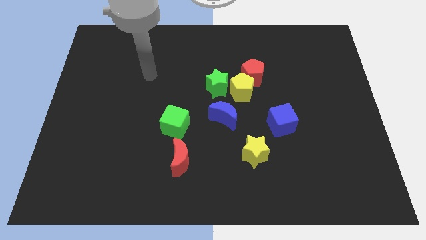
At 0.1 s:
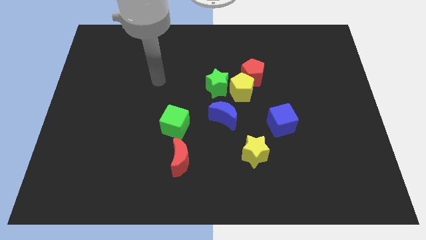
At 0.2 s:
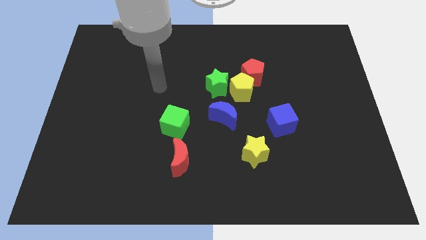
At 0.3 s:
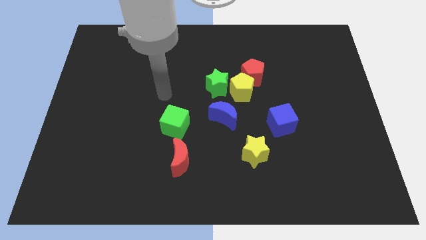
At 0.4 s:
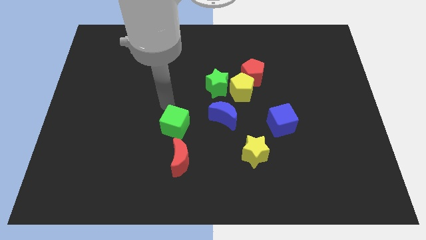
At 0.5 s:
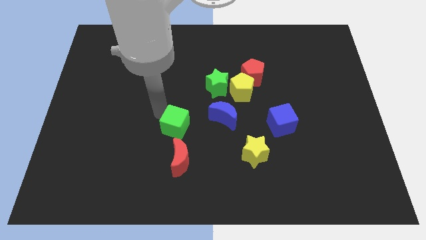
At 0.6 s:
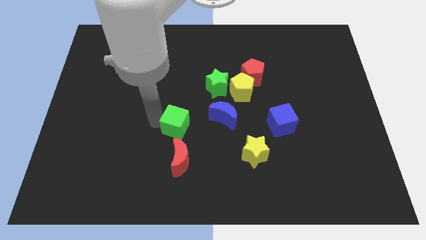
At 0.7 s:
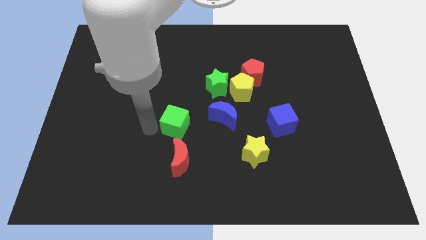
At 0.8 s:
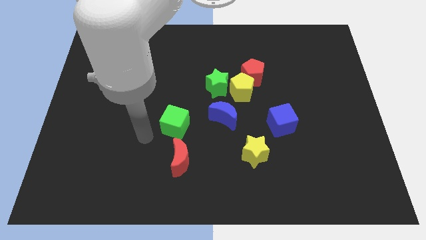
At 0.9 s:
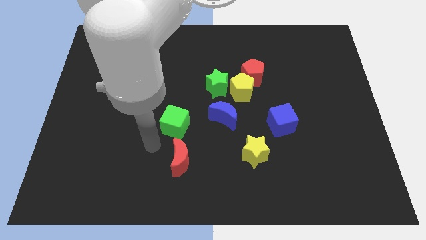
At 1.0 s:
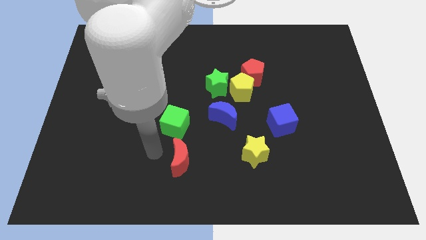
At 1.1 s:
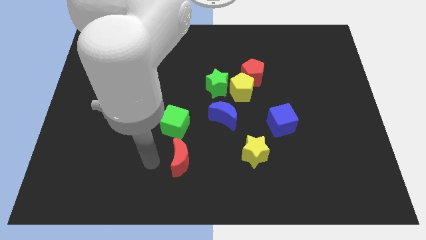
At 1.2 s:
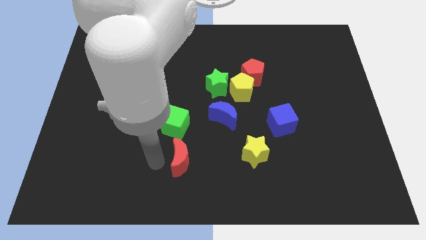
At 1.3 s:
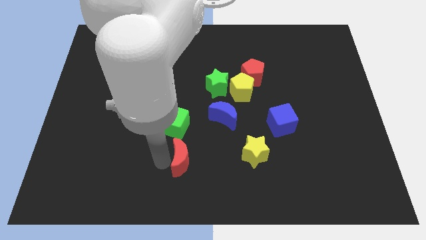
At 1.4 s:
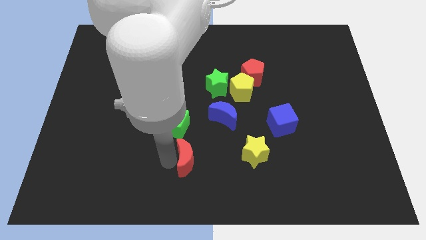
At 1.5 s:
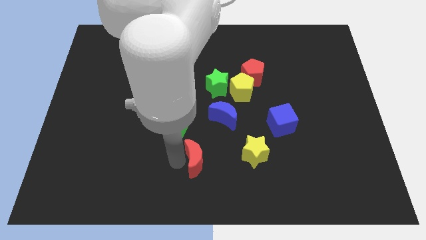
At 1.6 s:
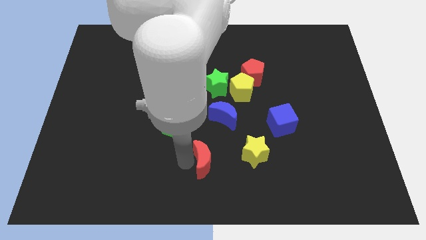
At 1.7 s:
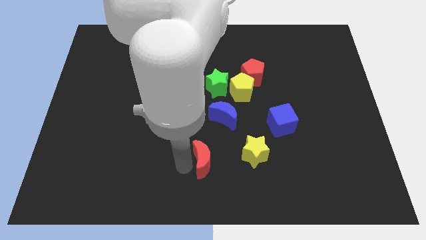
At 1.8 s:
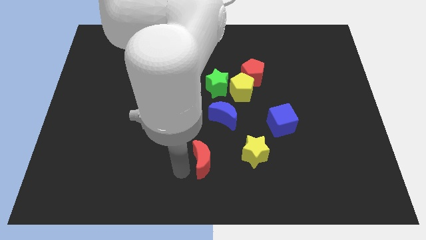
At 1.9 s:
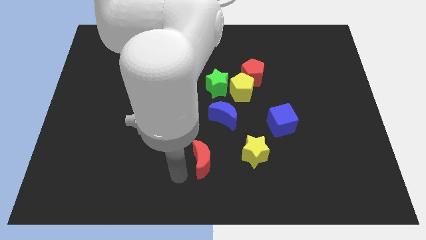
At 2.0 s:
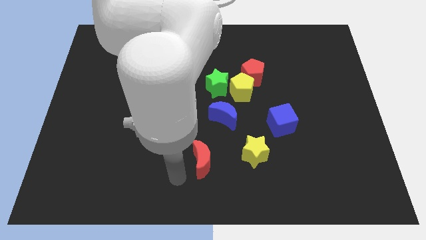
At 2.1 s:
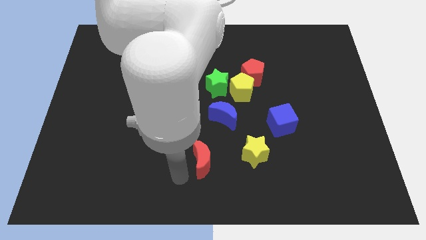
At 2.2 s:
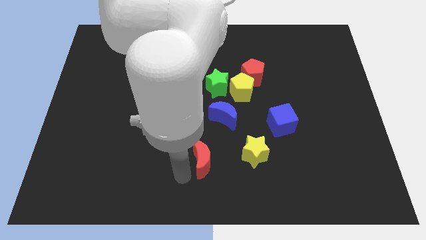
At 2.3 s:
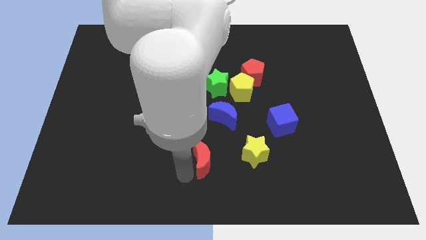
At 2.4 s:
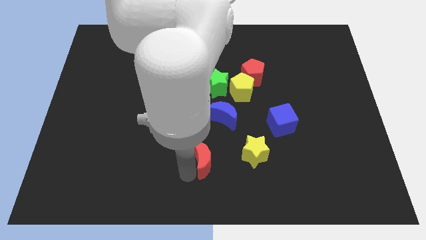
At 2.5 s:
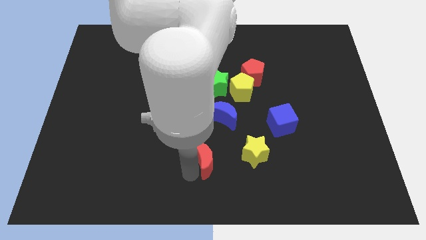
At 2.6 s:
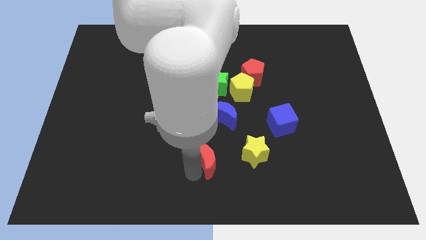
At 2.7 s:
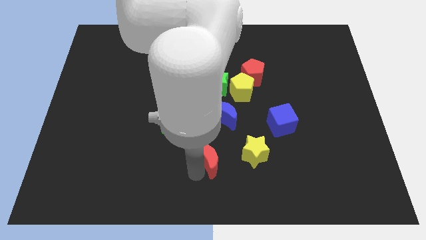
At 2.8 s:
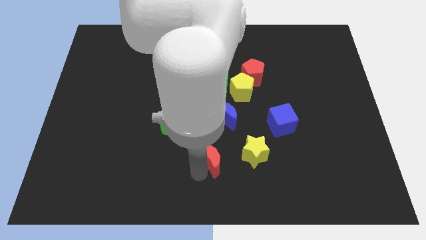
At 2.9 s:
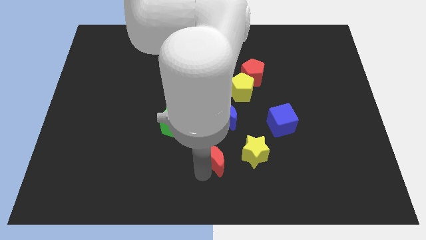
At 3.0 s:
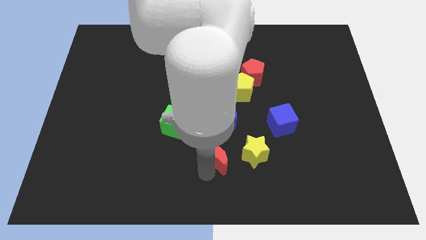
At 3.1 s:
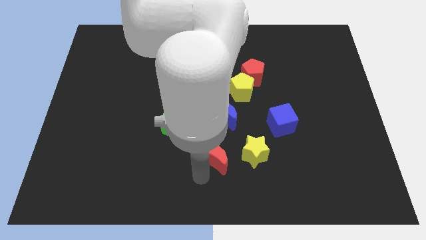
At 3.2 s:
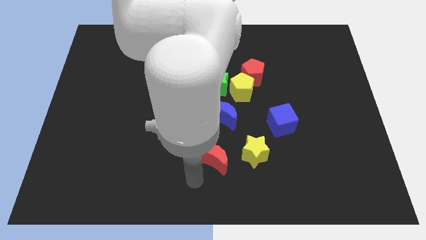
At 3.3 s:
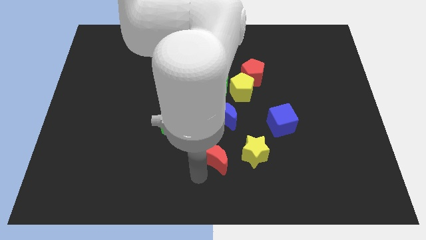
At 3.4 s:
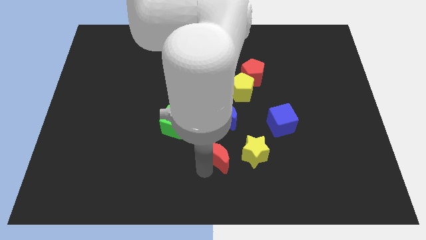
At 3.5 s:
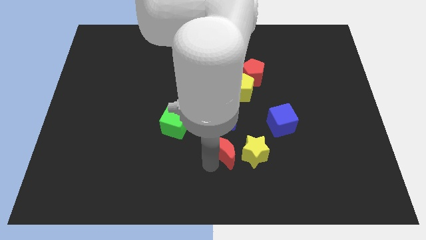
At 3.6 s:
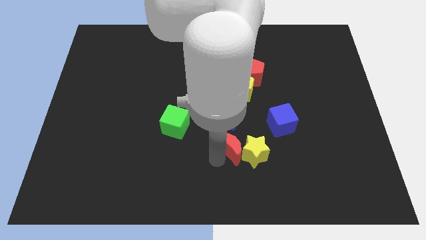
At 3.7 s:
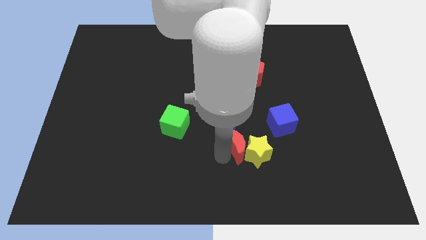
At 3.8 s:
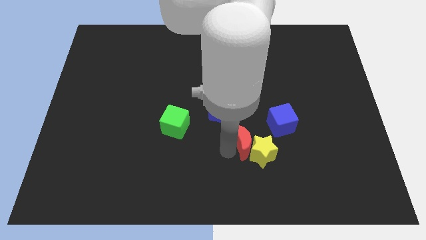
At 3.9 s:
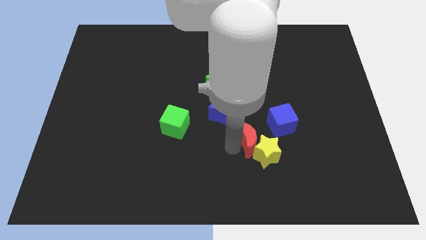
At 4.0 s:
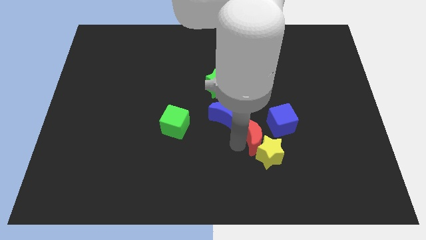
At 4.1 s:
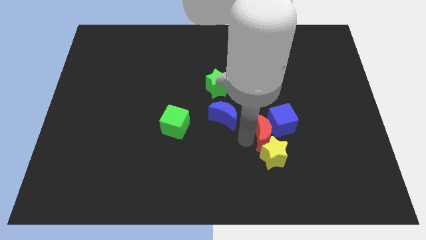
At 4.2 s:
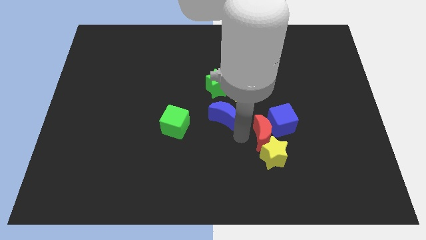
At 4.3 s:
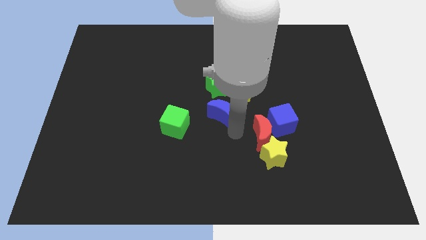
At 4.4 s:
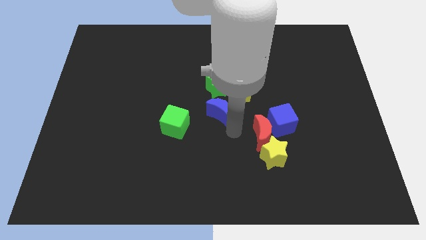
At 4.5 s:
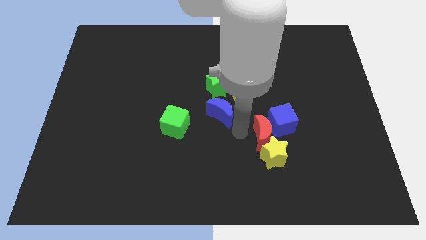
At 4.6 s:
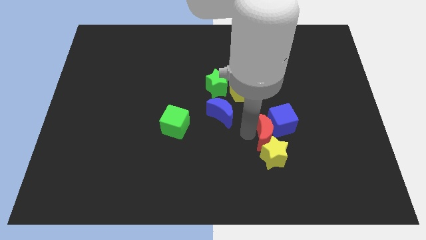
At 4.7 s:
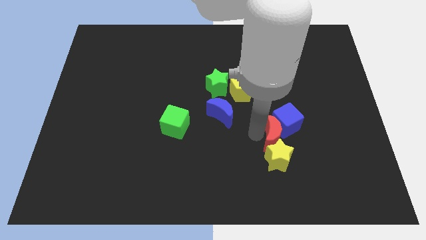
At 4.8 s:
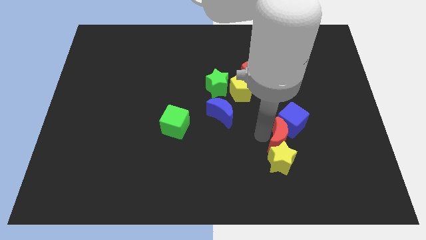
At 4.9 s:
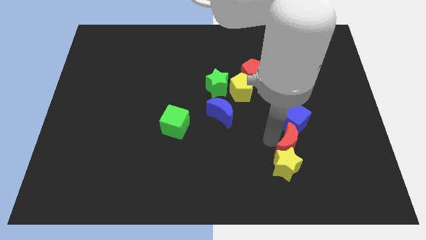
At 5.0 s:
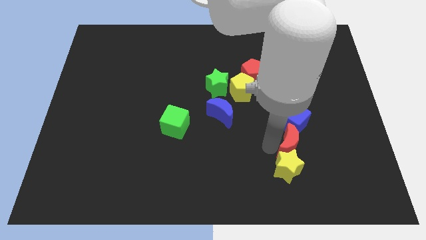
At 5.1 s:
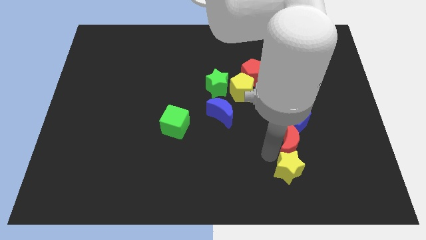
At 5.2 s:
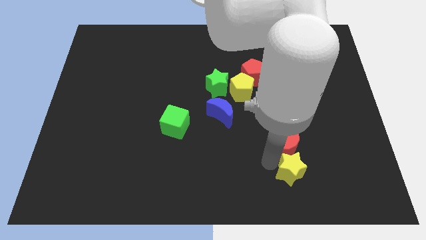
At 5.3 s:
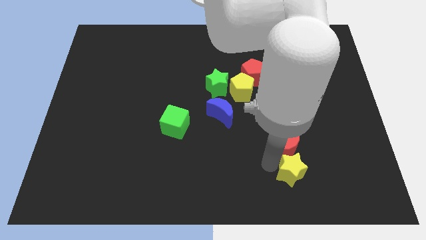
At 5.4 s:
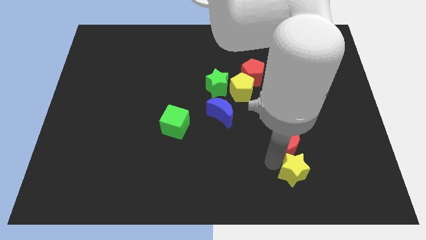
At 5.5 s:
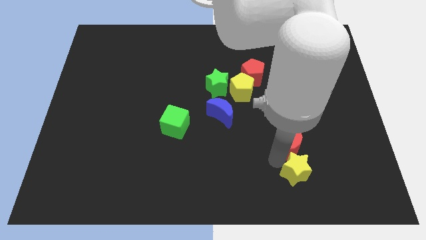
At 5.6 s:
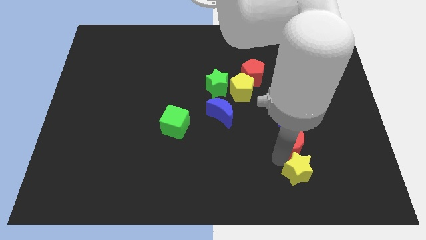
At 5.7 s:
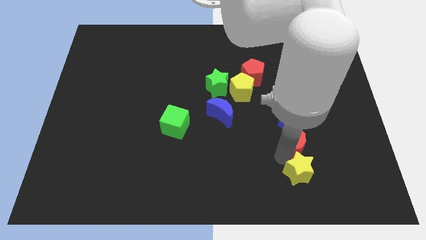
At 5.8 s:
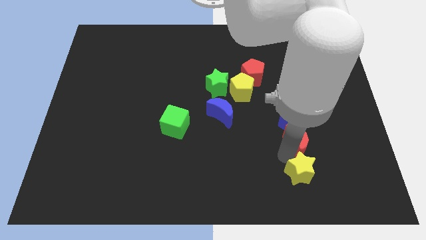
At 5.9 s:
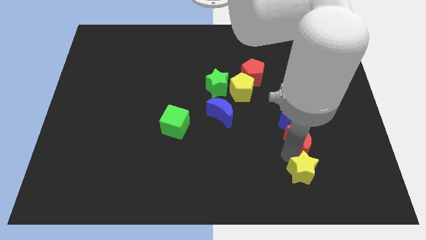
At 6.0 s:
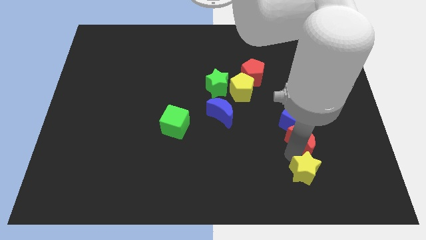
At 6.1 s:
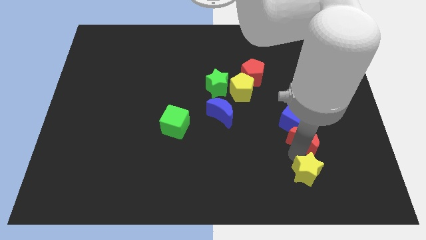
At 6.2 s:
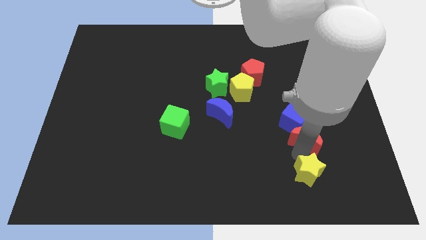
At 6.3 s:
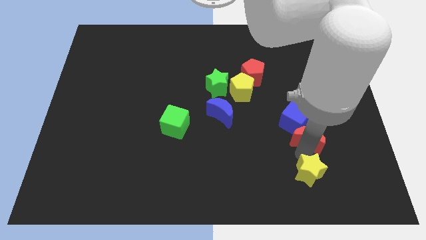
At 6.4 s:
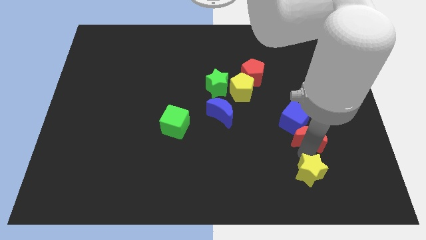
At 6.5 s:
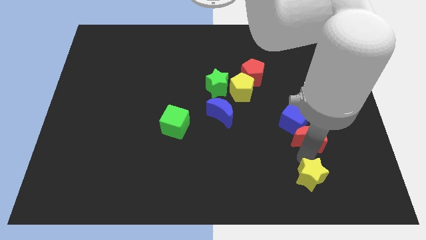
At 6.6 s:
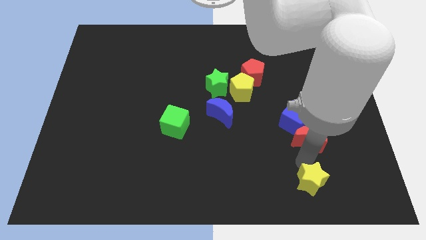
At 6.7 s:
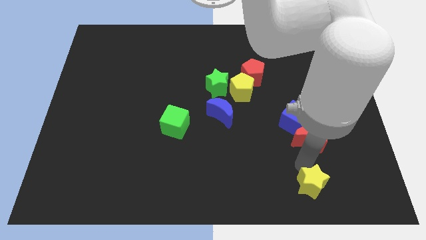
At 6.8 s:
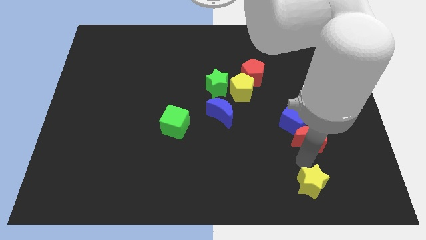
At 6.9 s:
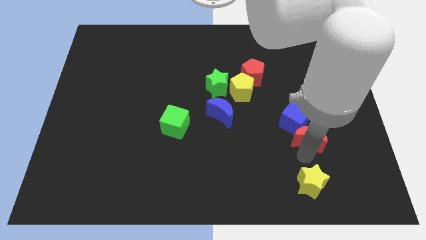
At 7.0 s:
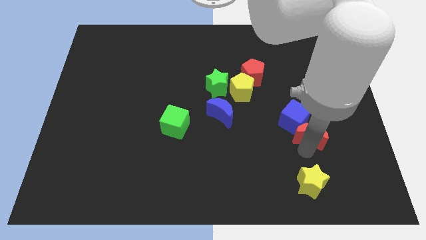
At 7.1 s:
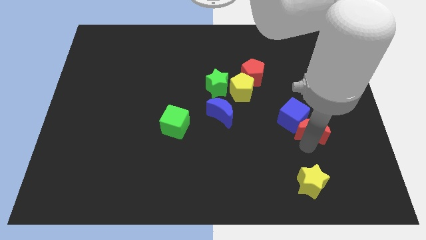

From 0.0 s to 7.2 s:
slide the red moon to the right side of the blue cube
